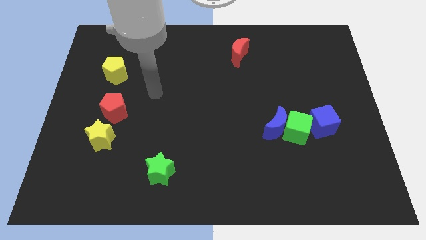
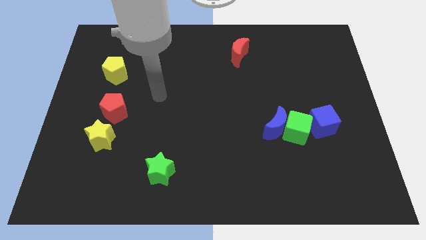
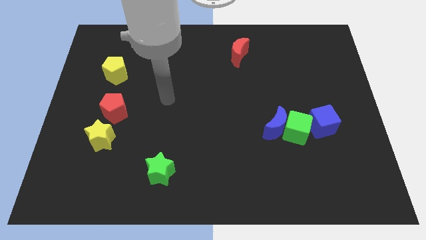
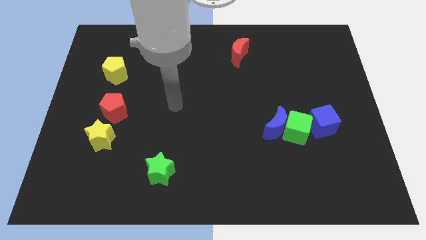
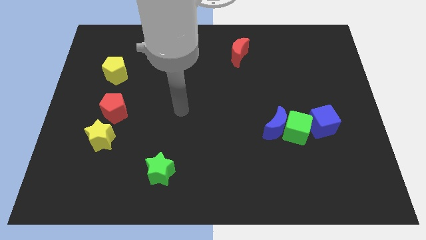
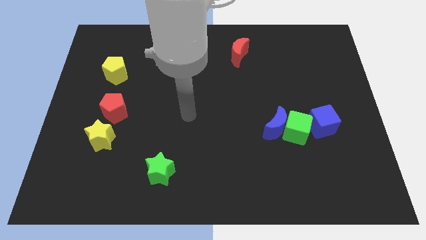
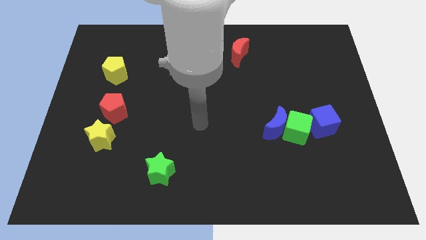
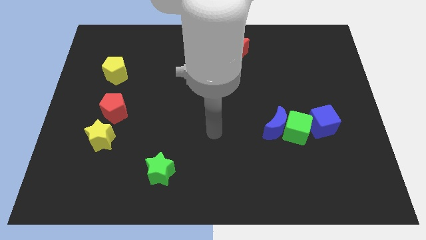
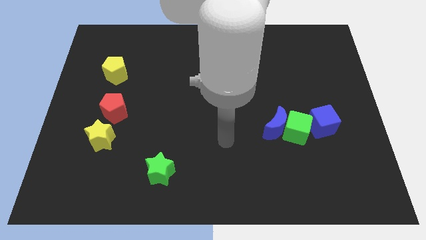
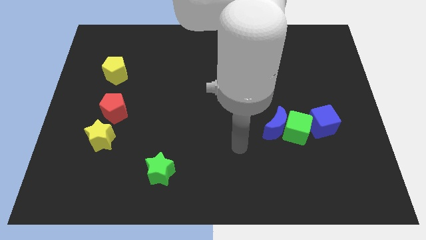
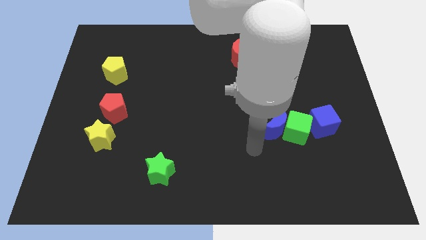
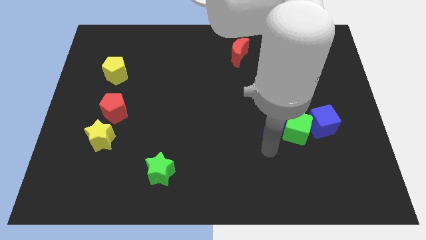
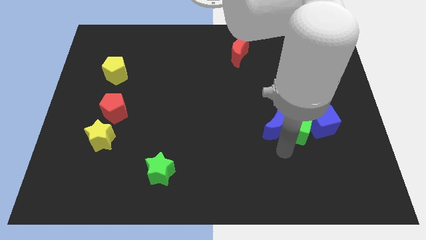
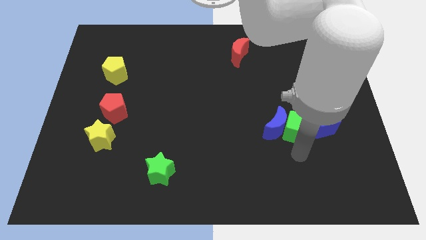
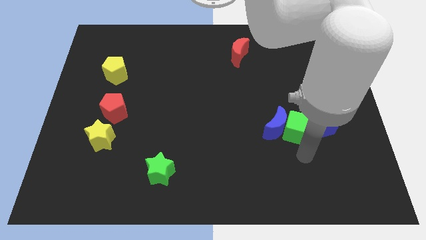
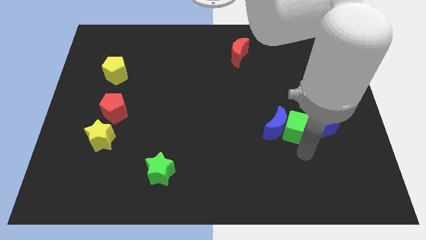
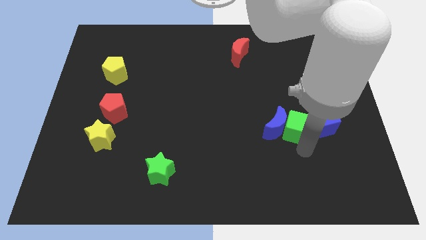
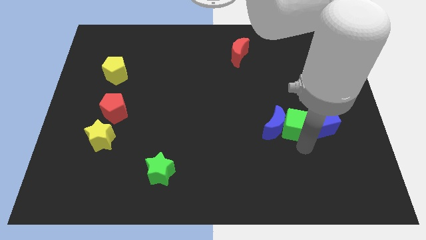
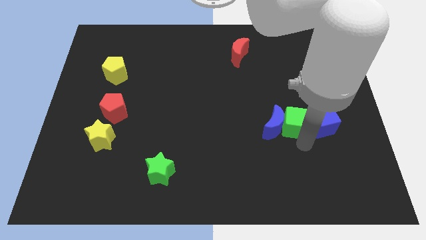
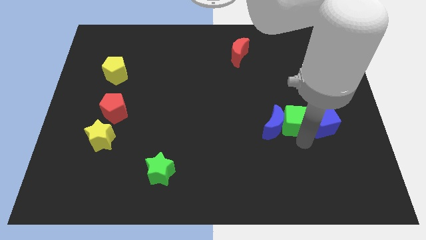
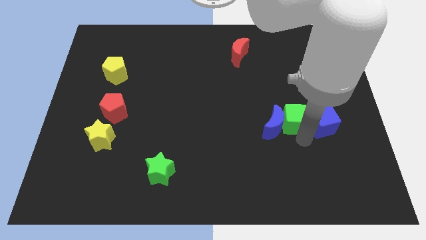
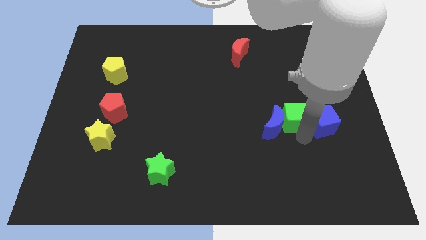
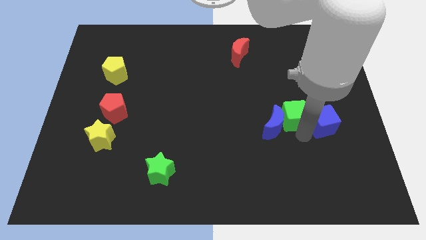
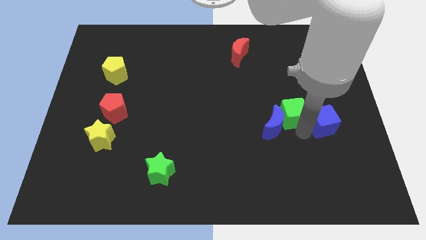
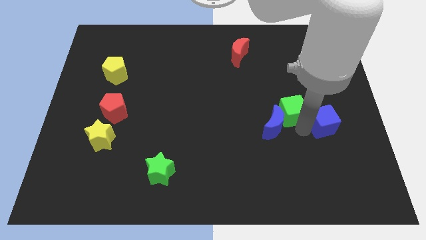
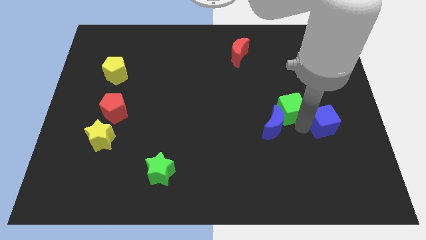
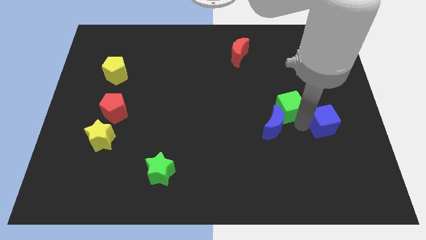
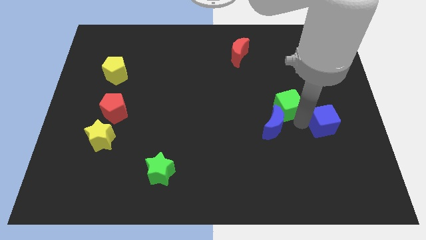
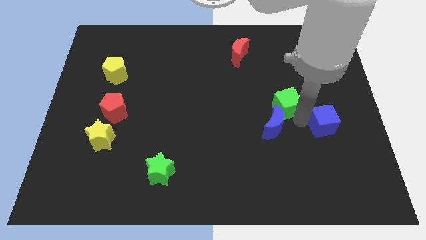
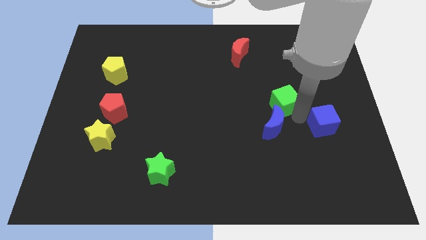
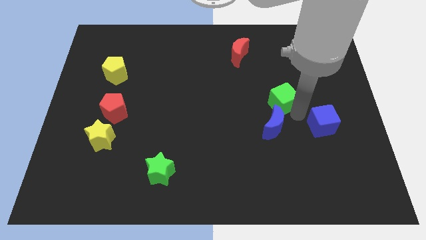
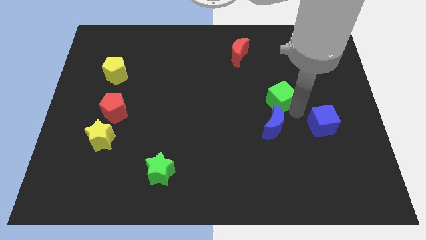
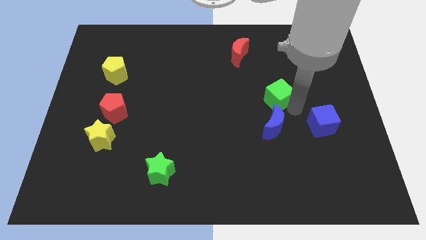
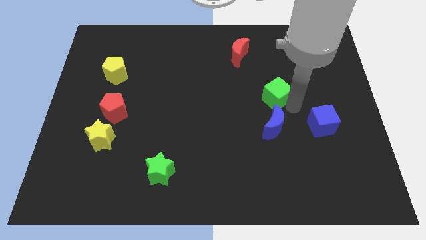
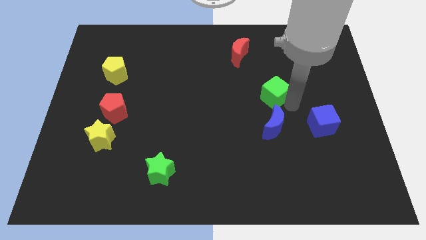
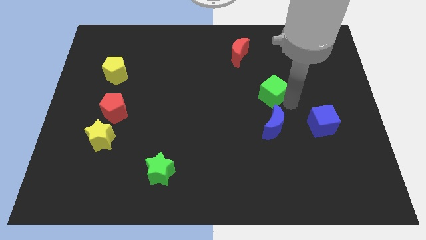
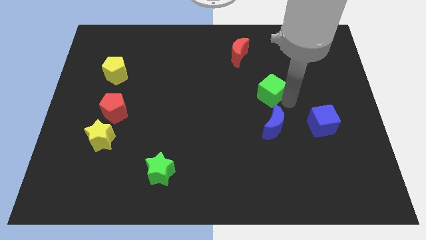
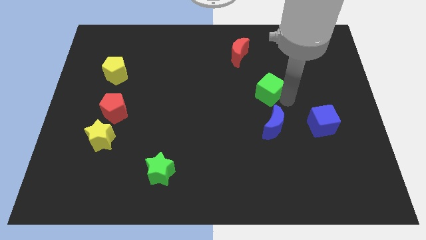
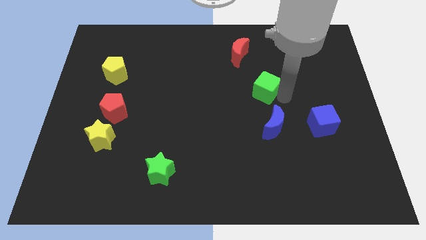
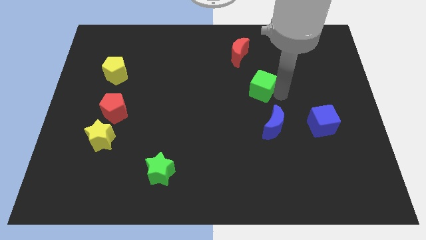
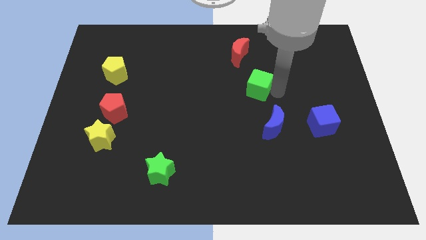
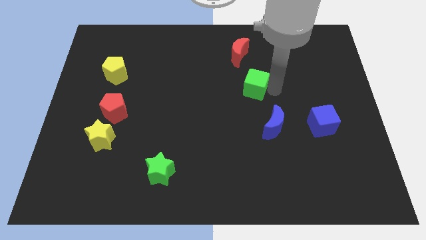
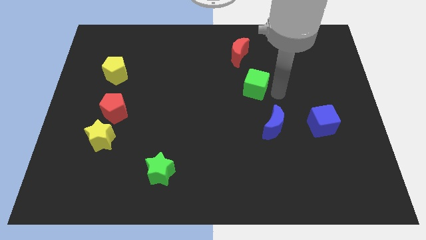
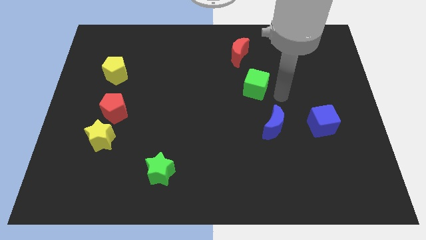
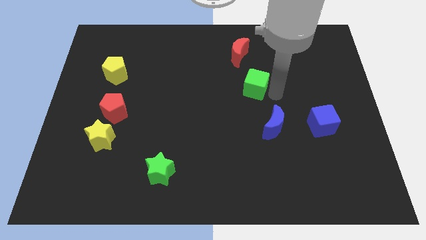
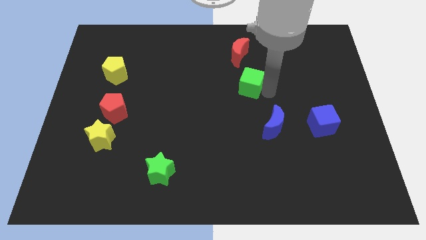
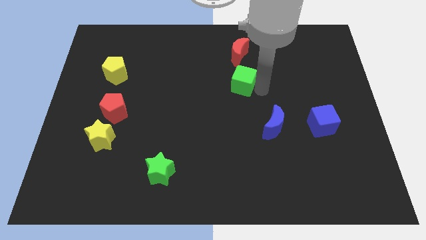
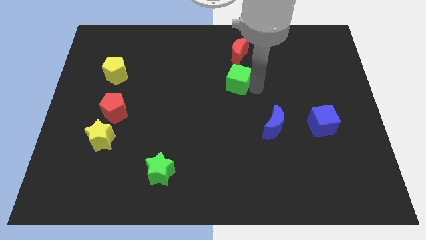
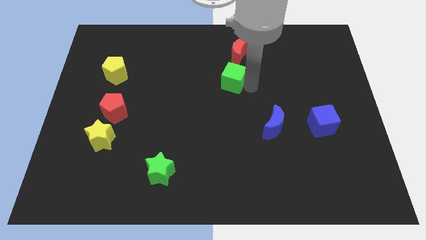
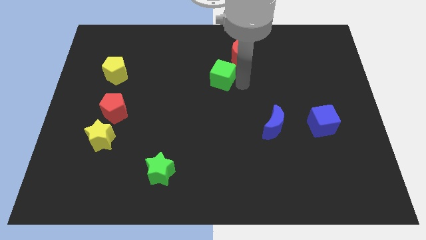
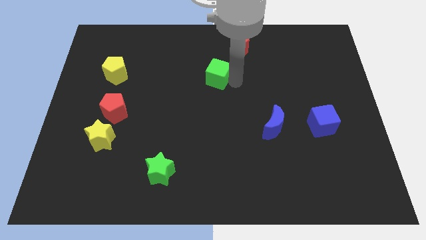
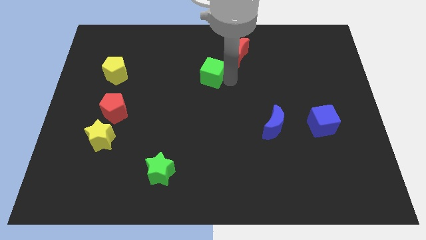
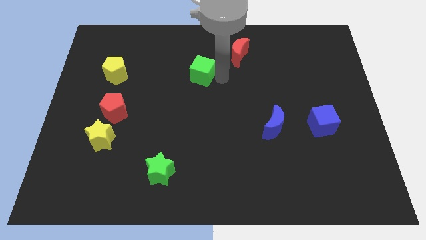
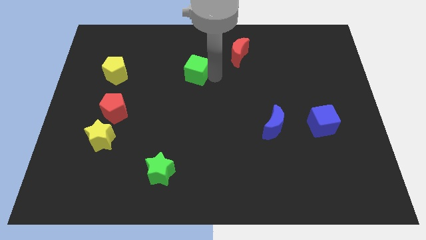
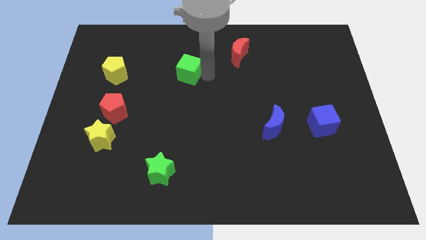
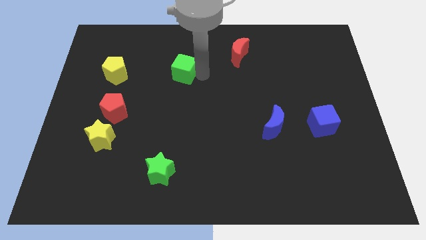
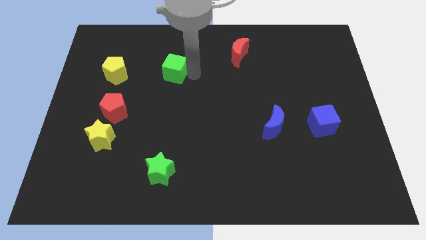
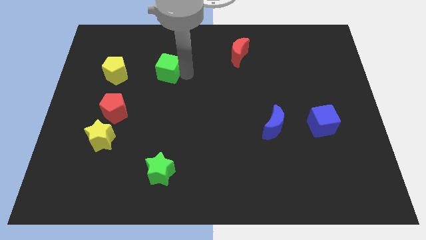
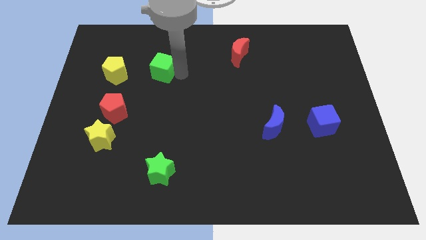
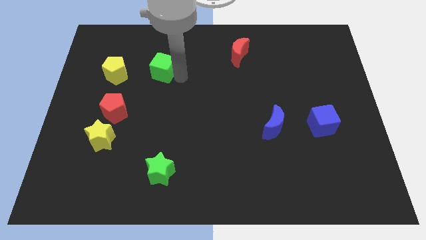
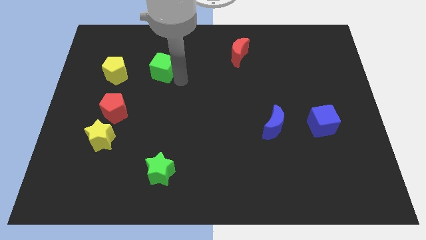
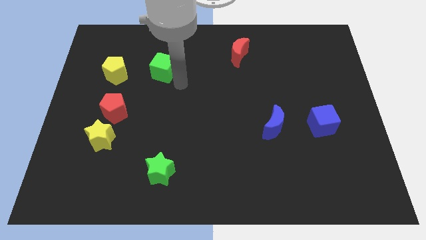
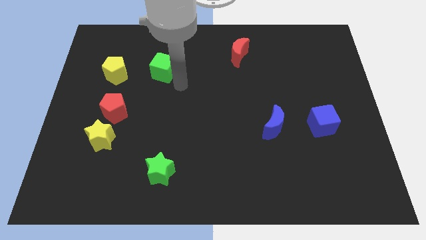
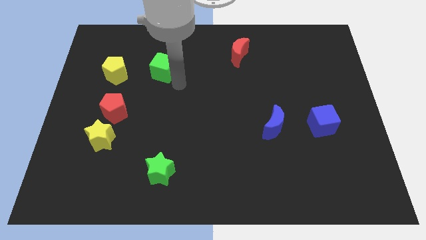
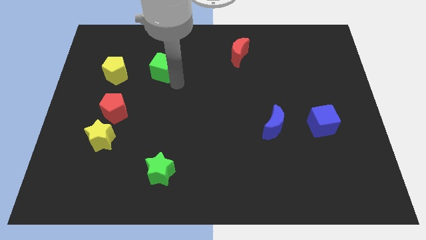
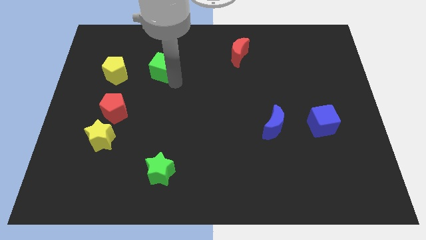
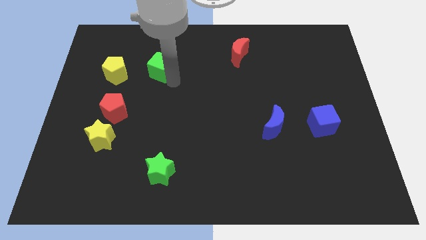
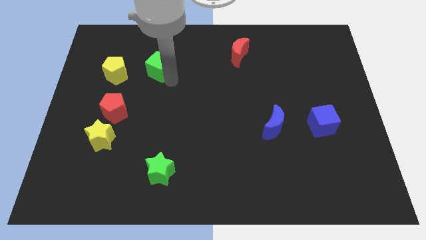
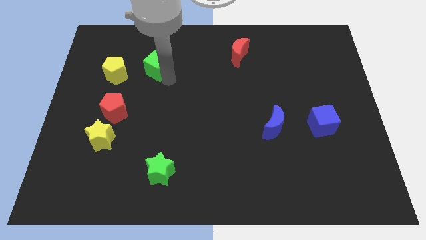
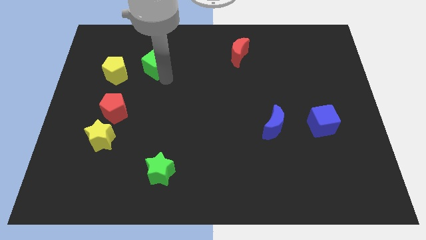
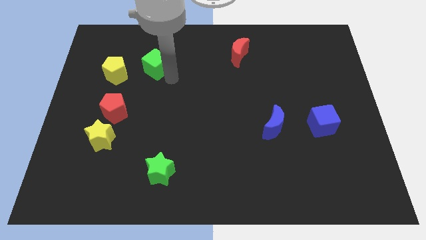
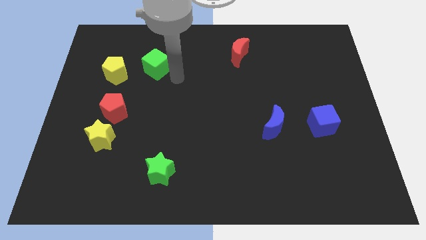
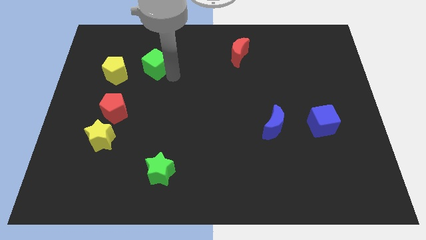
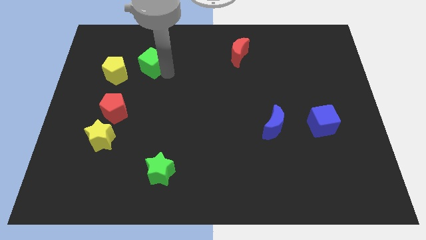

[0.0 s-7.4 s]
put the green cube to the top right side of the yellow pentagon
